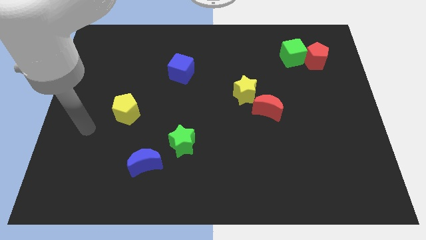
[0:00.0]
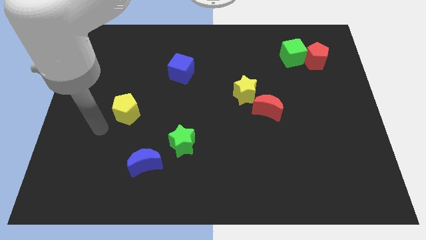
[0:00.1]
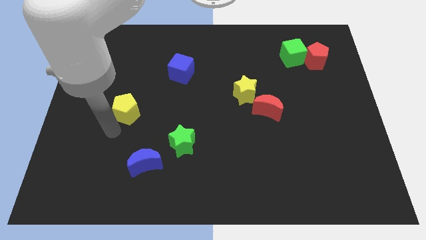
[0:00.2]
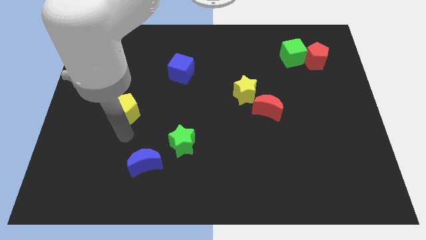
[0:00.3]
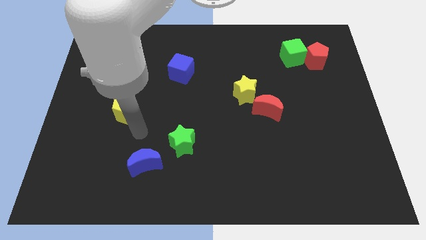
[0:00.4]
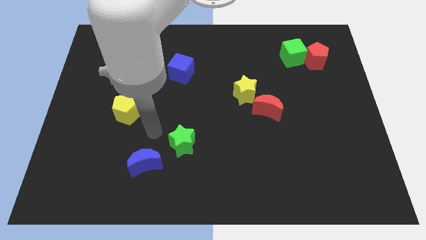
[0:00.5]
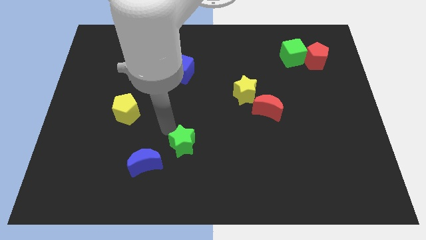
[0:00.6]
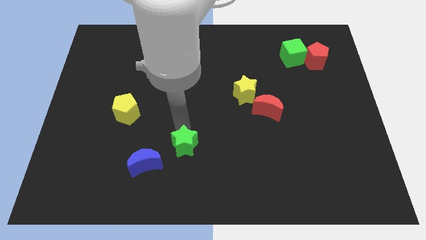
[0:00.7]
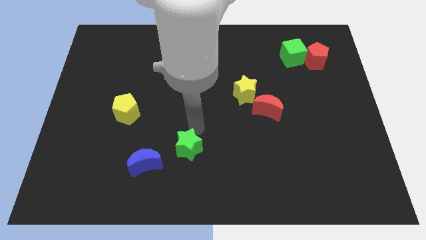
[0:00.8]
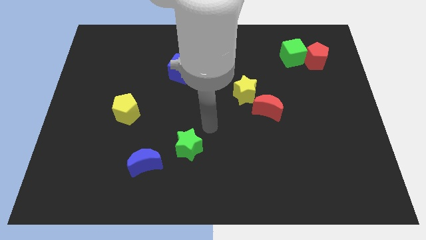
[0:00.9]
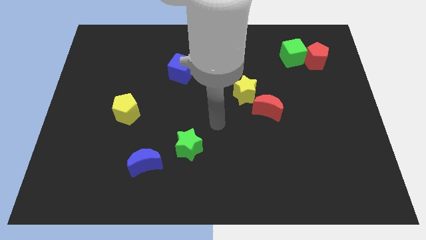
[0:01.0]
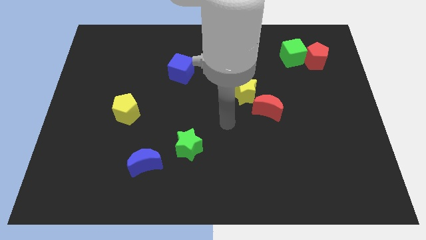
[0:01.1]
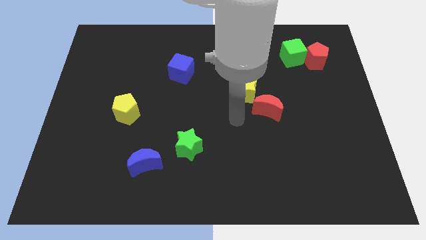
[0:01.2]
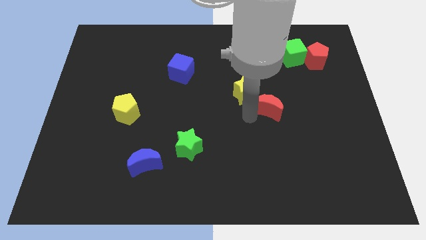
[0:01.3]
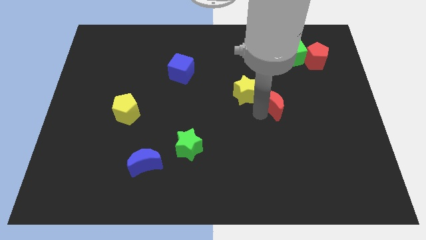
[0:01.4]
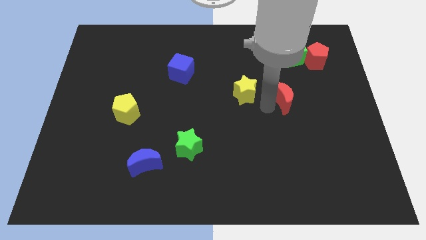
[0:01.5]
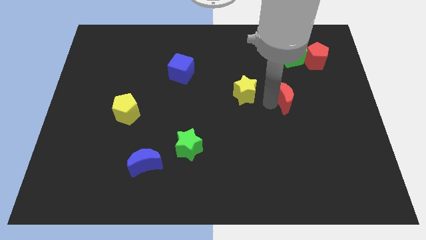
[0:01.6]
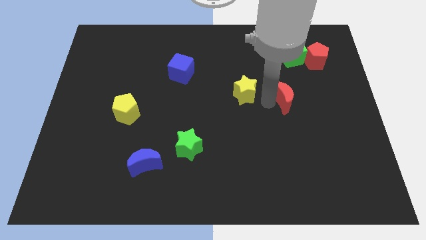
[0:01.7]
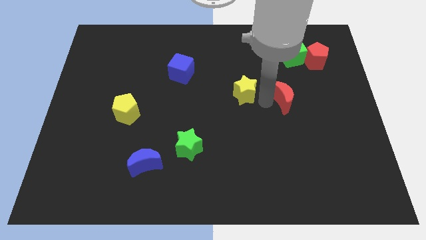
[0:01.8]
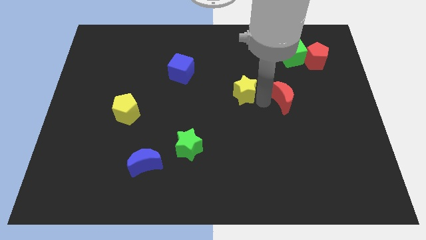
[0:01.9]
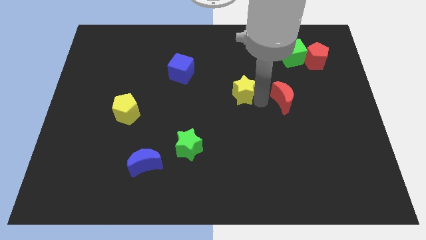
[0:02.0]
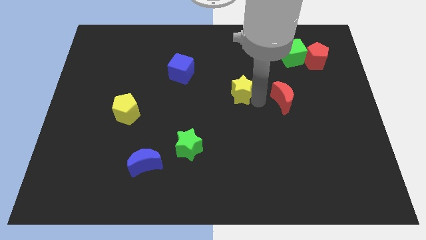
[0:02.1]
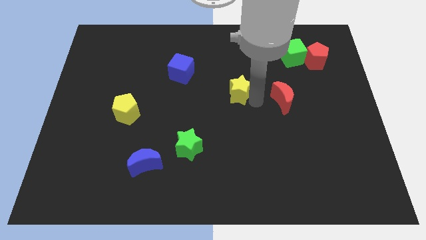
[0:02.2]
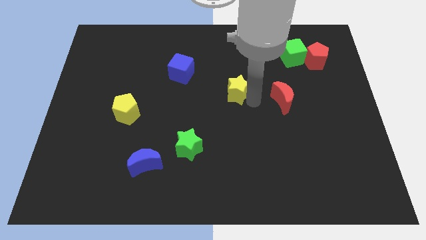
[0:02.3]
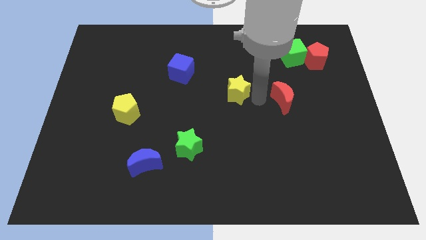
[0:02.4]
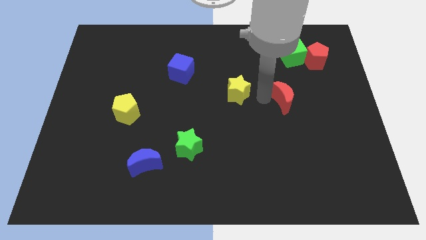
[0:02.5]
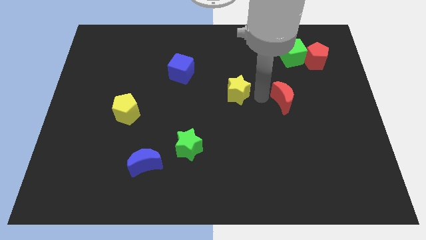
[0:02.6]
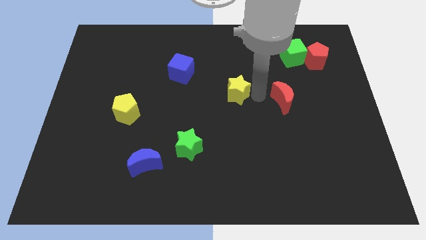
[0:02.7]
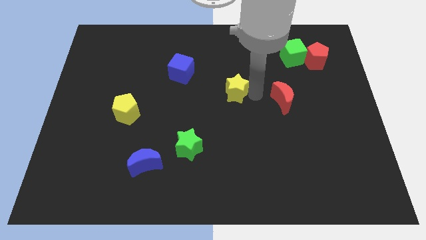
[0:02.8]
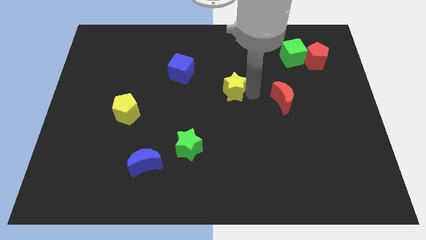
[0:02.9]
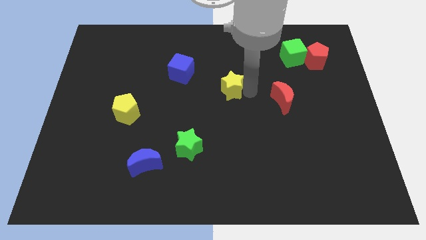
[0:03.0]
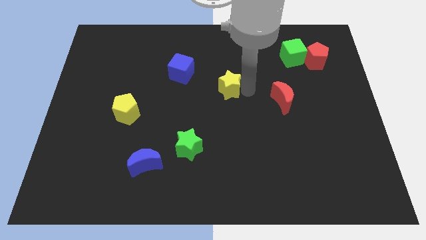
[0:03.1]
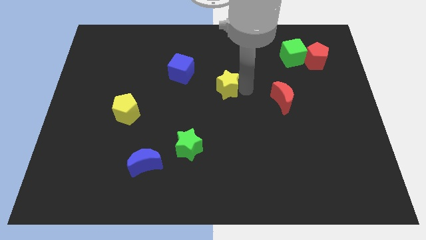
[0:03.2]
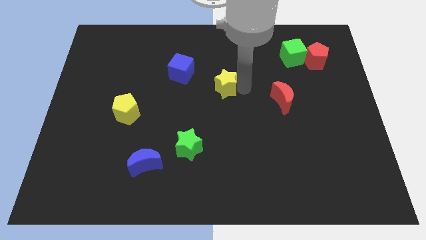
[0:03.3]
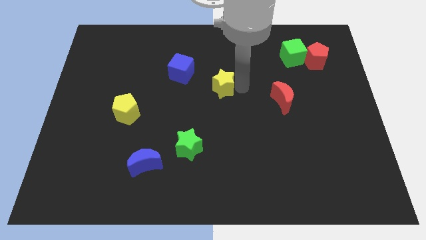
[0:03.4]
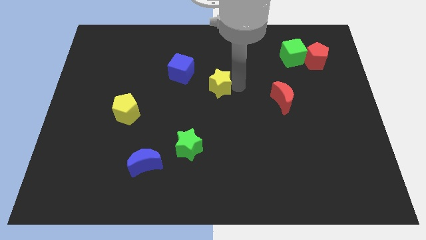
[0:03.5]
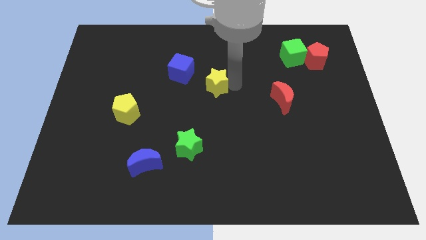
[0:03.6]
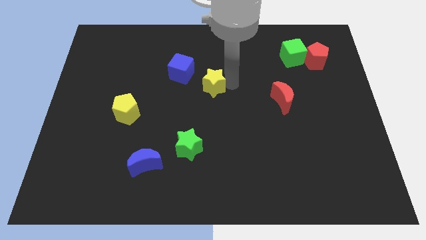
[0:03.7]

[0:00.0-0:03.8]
move the yellow star to the left a little

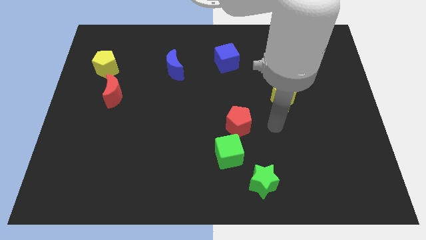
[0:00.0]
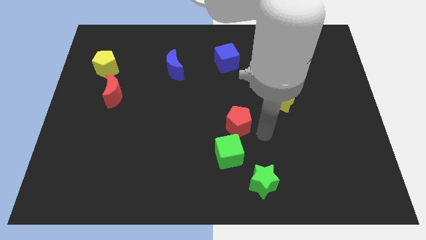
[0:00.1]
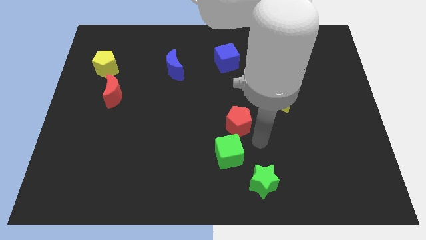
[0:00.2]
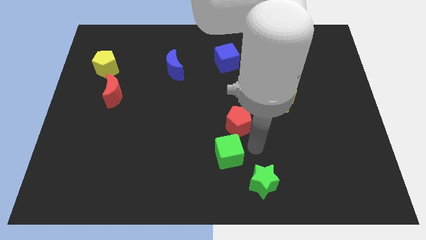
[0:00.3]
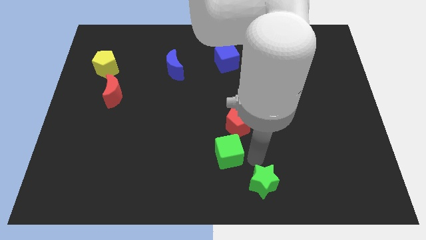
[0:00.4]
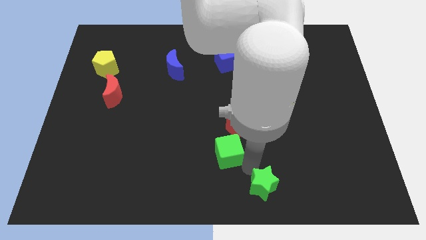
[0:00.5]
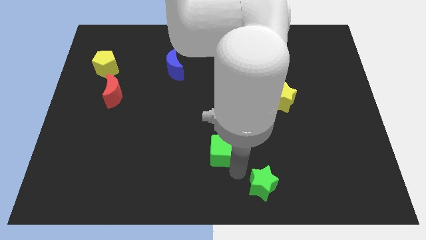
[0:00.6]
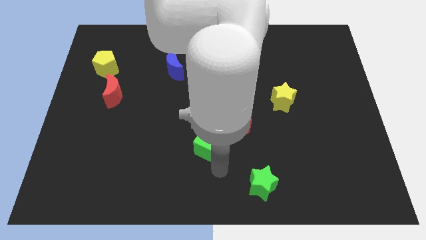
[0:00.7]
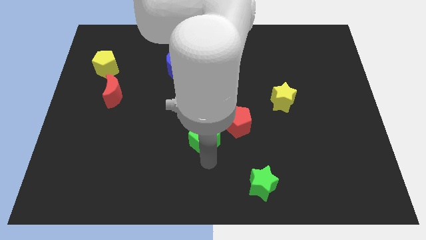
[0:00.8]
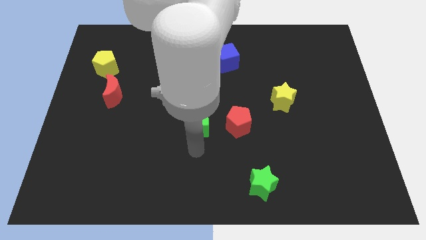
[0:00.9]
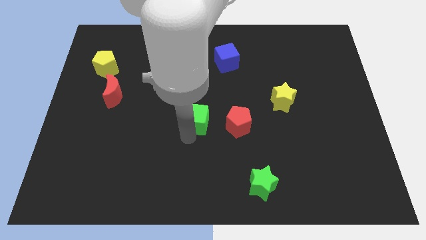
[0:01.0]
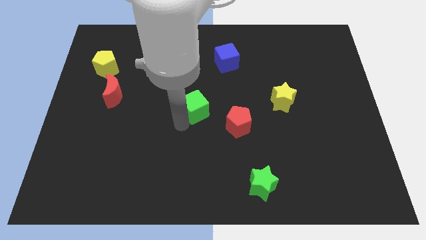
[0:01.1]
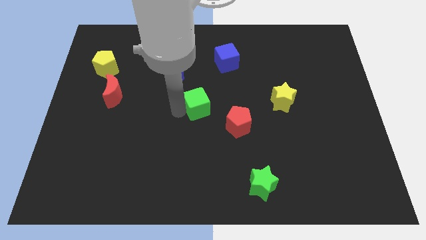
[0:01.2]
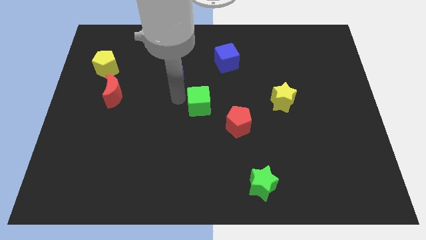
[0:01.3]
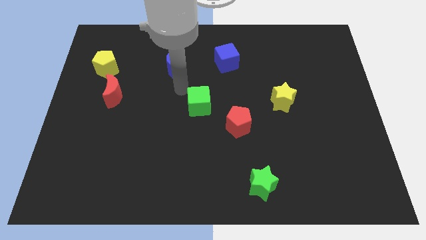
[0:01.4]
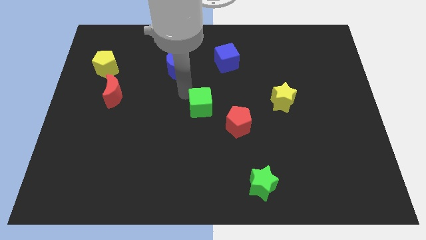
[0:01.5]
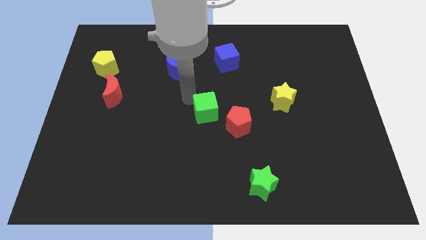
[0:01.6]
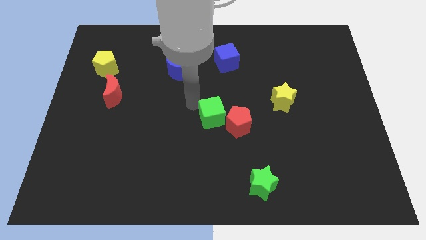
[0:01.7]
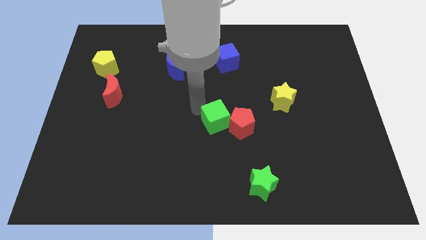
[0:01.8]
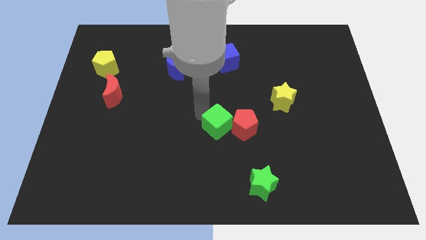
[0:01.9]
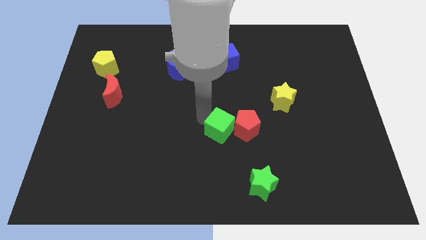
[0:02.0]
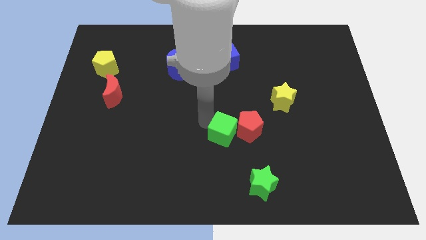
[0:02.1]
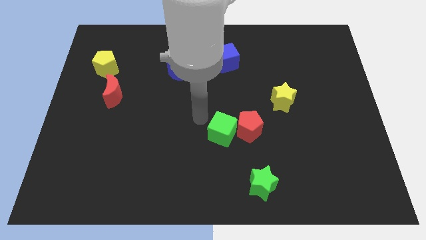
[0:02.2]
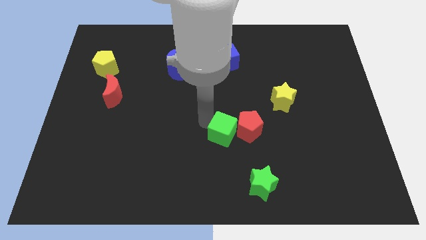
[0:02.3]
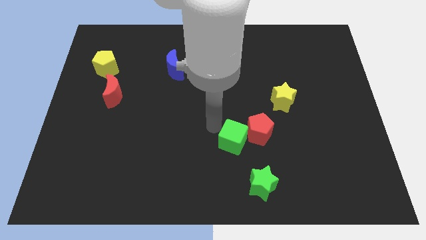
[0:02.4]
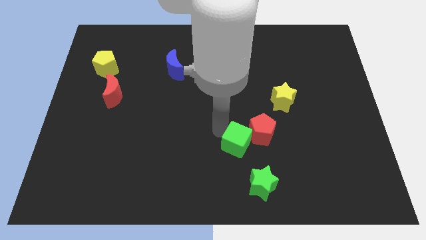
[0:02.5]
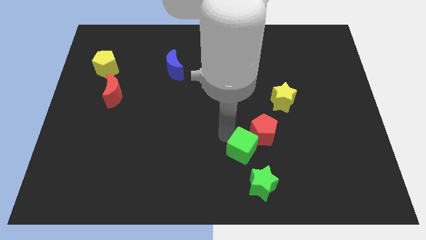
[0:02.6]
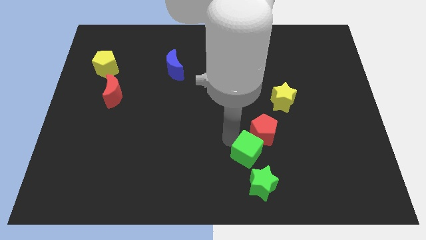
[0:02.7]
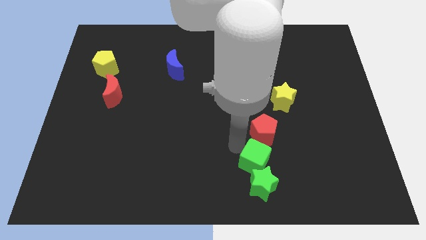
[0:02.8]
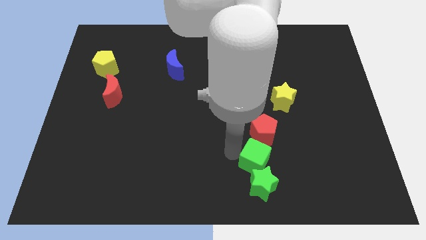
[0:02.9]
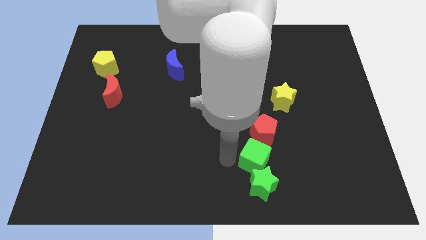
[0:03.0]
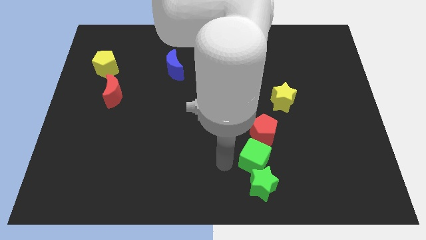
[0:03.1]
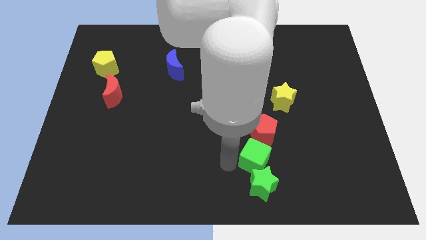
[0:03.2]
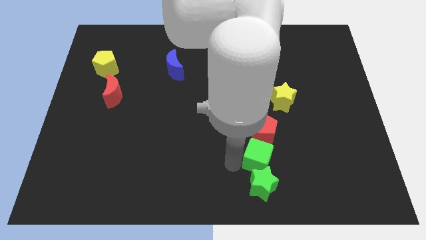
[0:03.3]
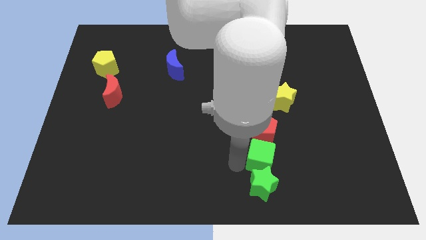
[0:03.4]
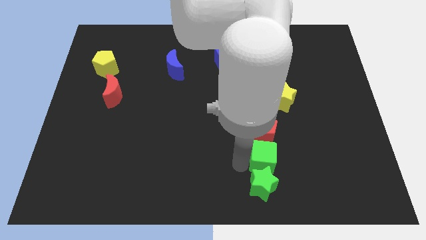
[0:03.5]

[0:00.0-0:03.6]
slide the green cube to the right a little

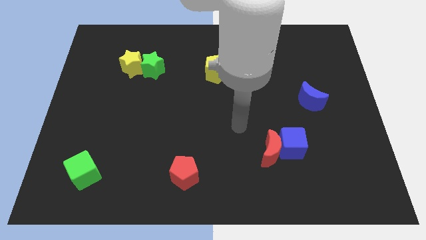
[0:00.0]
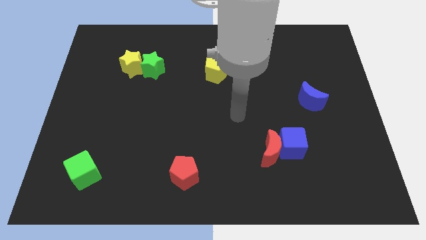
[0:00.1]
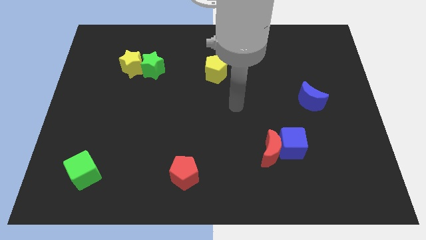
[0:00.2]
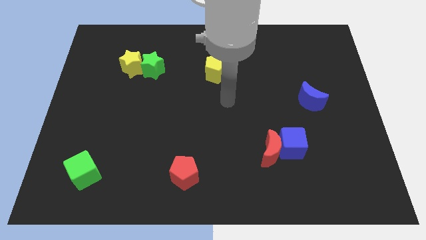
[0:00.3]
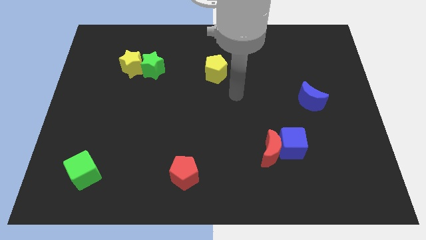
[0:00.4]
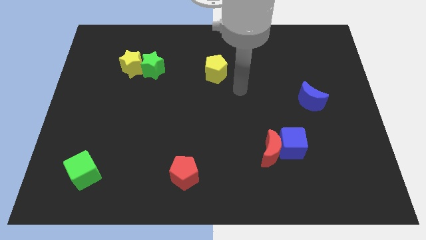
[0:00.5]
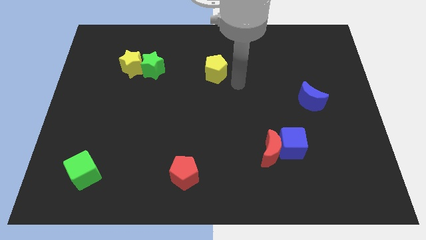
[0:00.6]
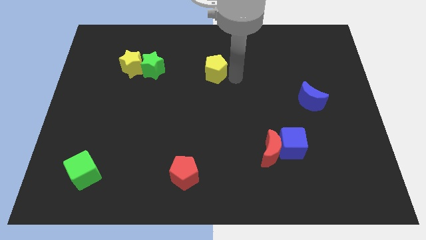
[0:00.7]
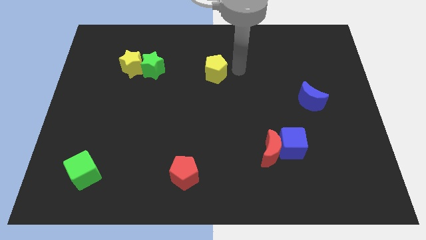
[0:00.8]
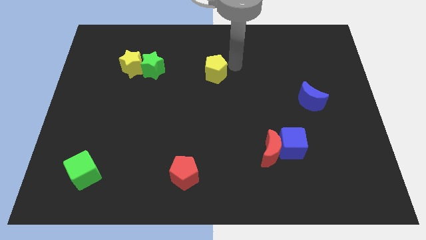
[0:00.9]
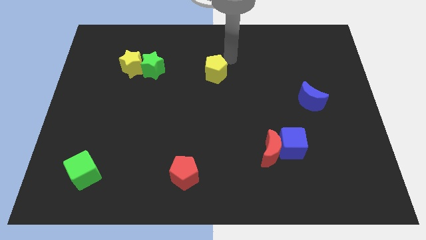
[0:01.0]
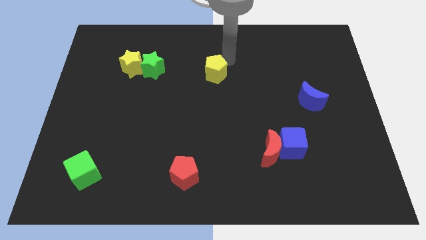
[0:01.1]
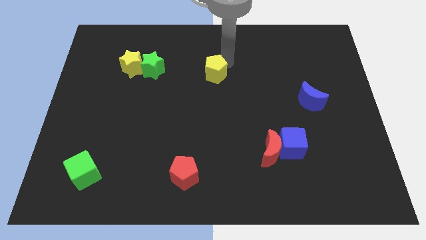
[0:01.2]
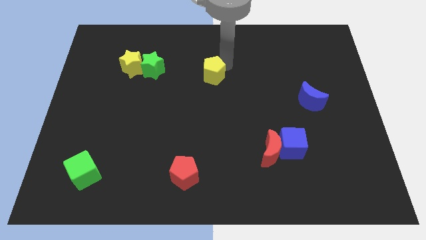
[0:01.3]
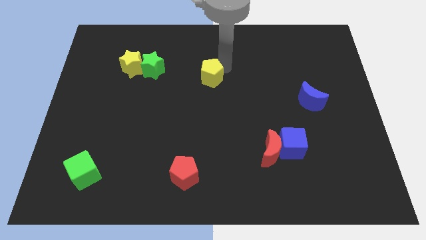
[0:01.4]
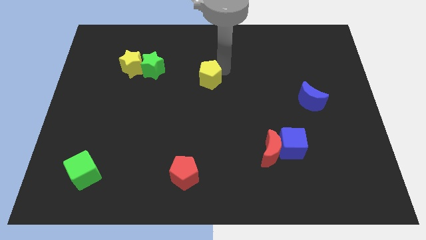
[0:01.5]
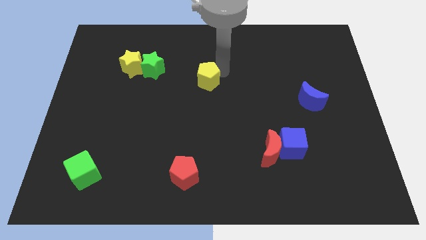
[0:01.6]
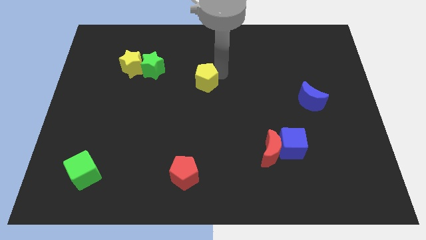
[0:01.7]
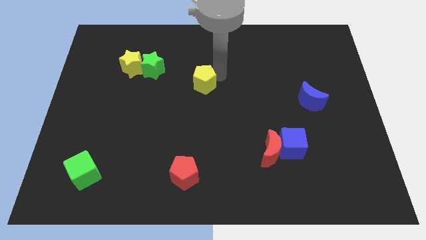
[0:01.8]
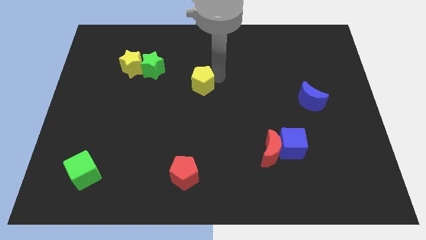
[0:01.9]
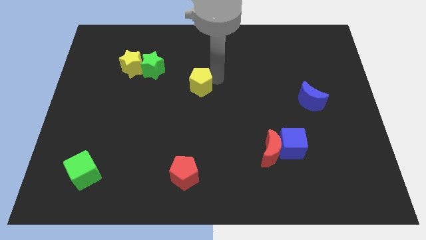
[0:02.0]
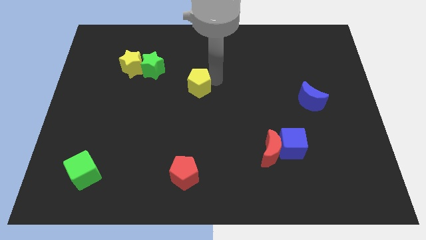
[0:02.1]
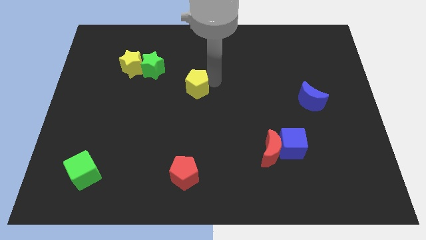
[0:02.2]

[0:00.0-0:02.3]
move the yellow pentagon somewhat down and left diagonally
